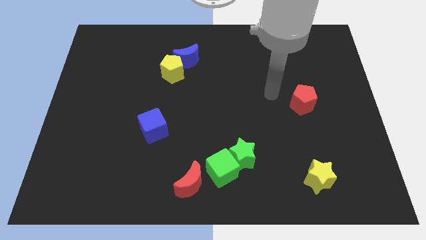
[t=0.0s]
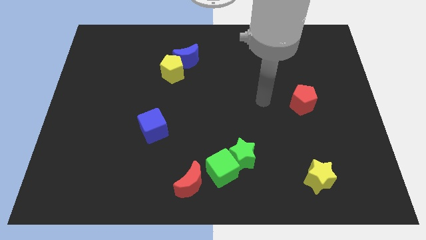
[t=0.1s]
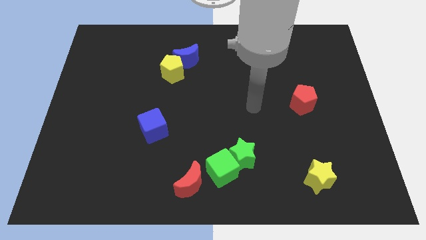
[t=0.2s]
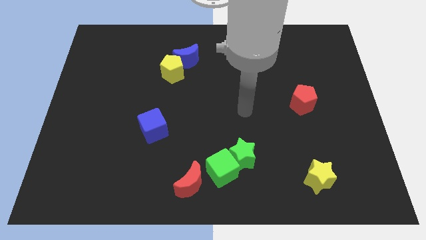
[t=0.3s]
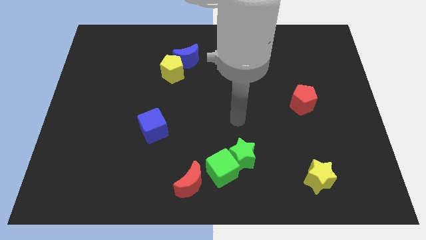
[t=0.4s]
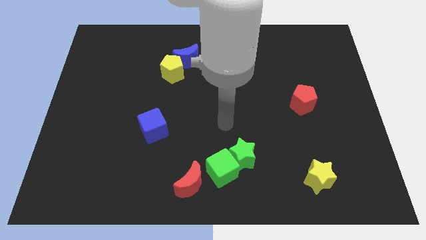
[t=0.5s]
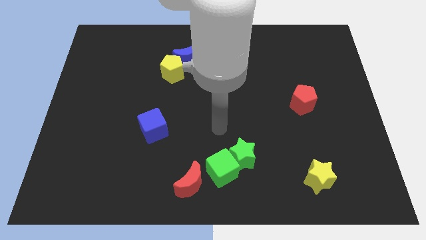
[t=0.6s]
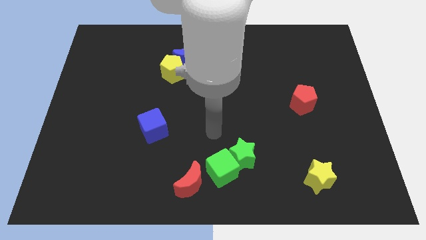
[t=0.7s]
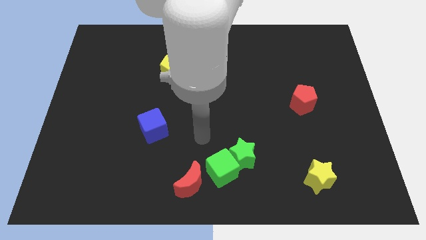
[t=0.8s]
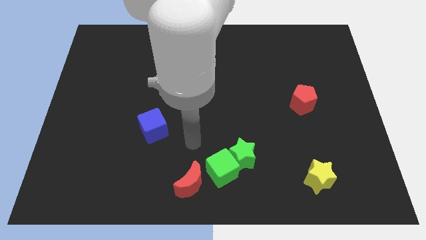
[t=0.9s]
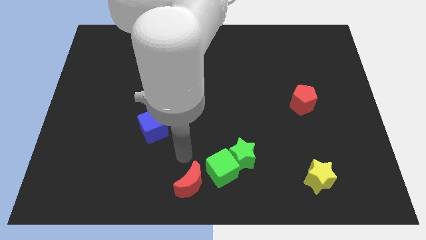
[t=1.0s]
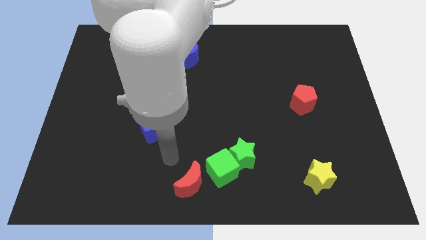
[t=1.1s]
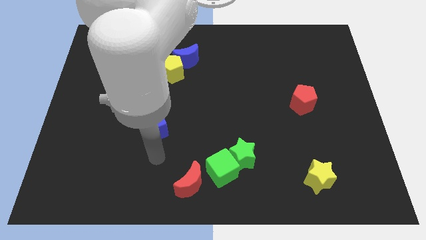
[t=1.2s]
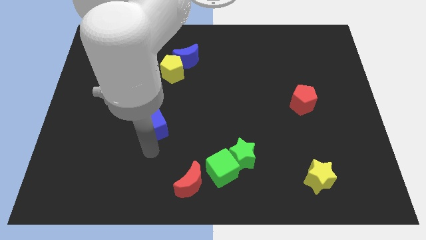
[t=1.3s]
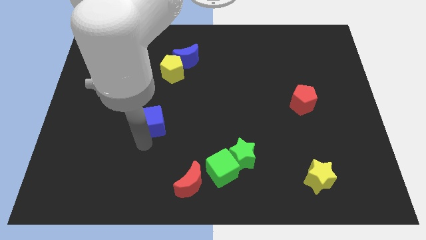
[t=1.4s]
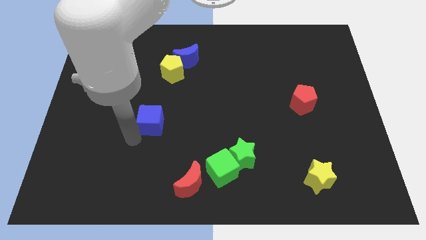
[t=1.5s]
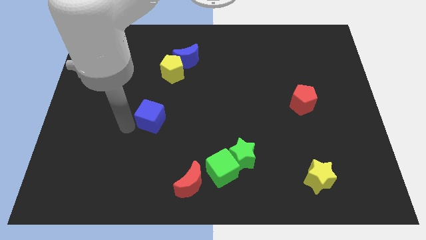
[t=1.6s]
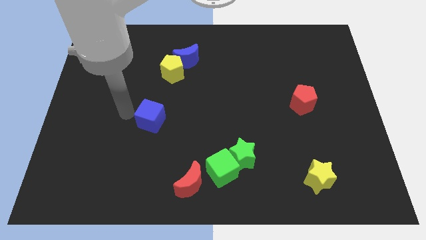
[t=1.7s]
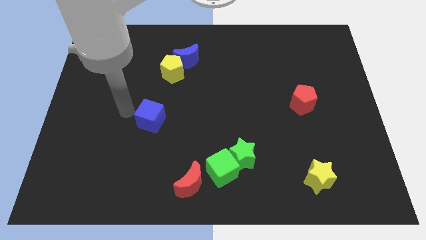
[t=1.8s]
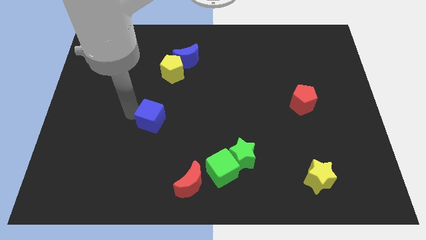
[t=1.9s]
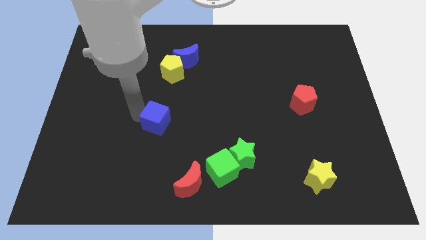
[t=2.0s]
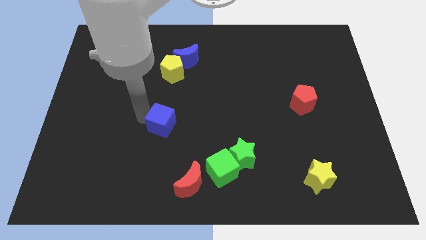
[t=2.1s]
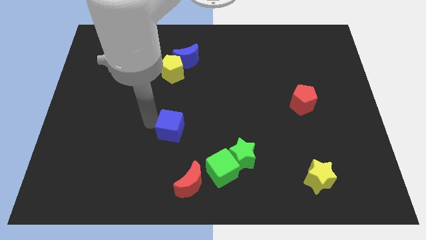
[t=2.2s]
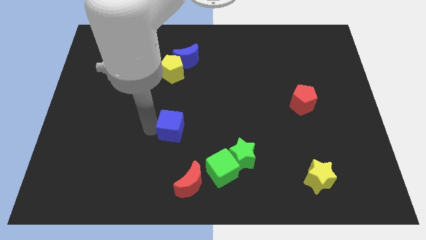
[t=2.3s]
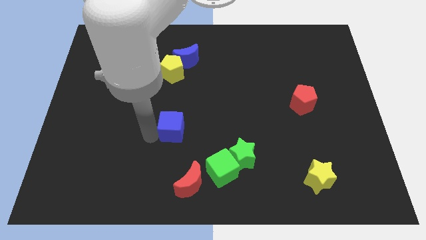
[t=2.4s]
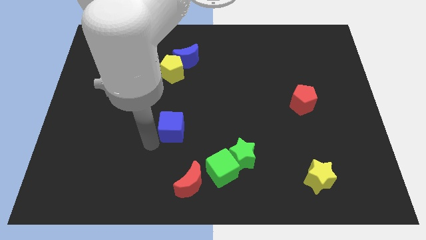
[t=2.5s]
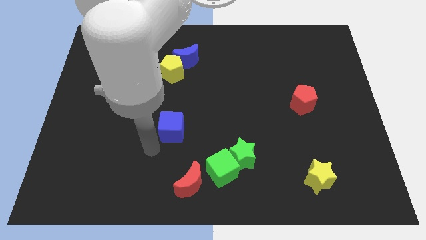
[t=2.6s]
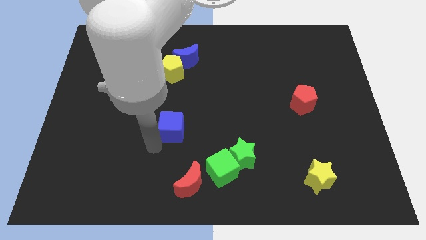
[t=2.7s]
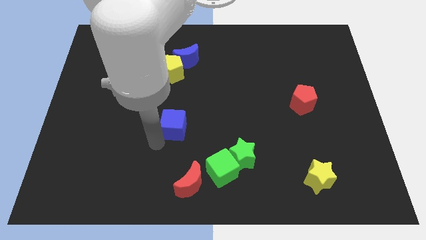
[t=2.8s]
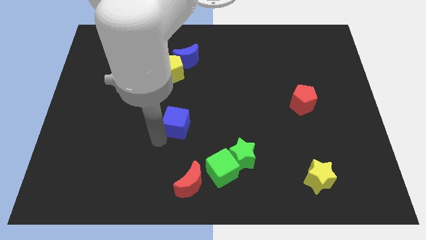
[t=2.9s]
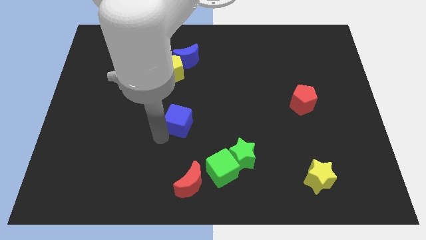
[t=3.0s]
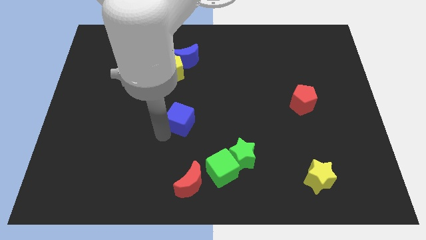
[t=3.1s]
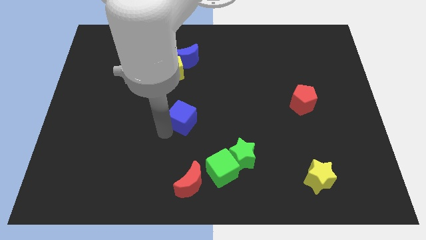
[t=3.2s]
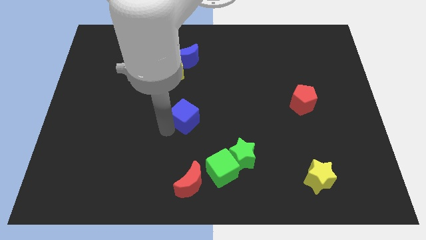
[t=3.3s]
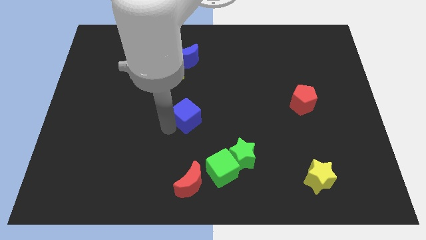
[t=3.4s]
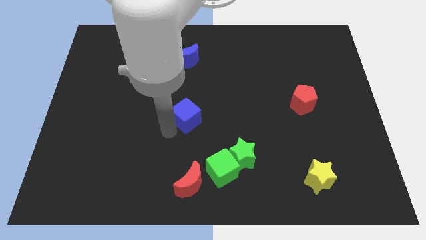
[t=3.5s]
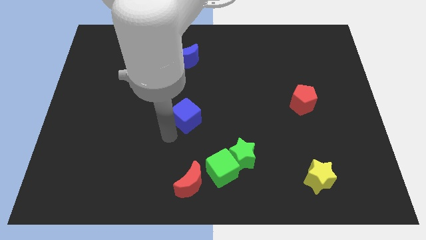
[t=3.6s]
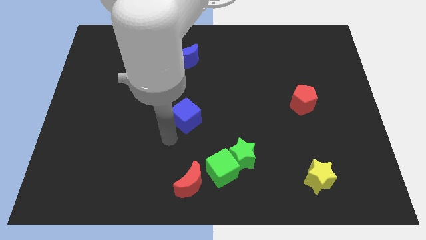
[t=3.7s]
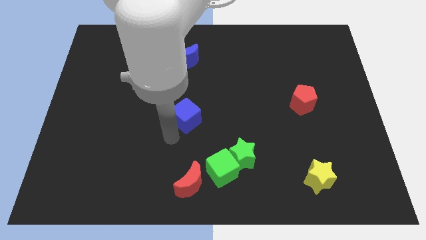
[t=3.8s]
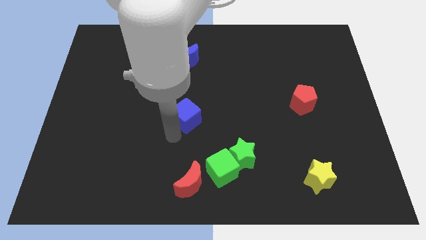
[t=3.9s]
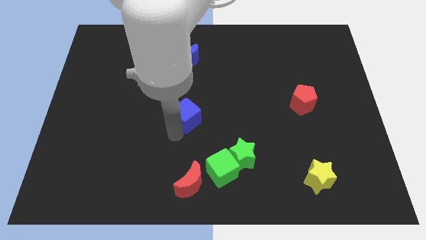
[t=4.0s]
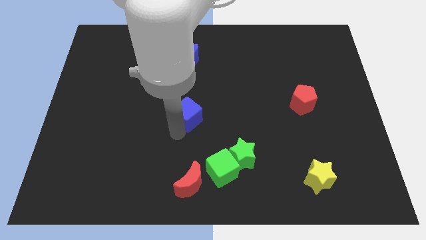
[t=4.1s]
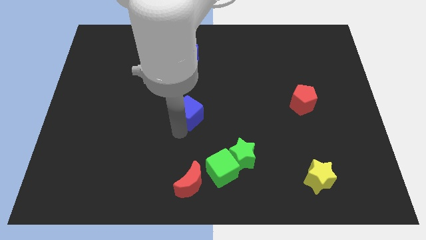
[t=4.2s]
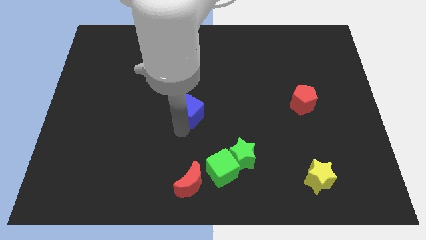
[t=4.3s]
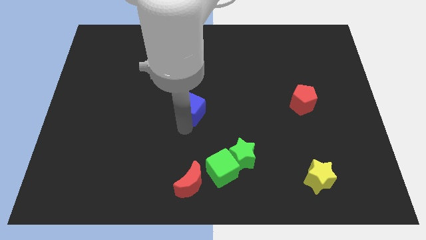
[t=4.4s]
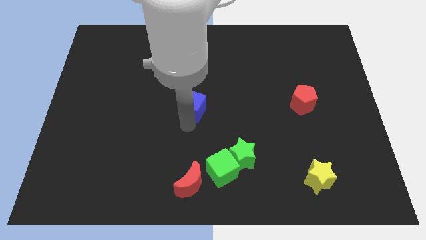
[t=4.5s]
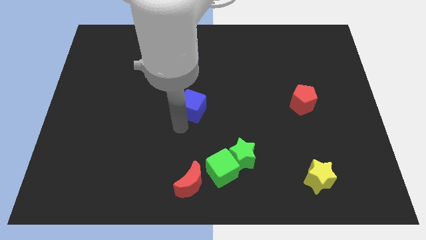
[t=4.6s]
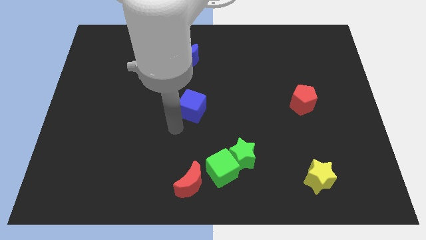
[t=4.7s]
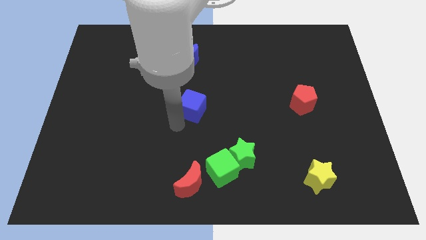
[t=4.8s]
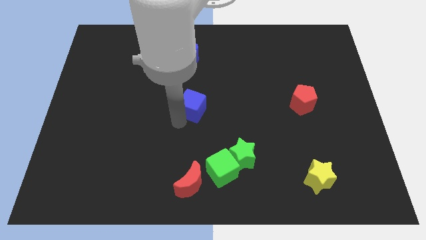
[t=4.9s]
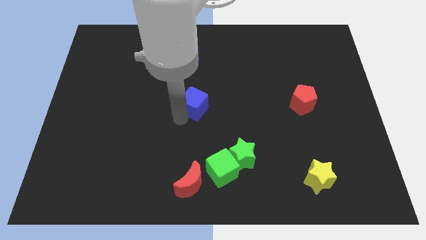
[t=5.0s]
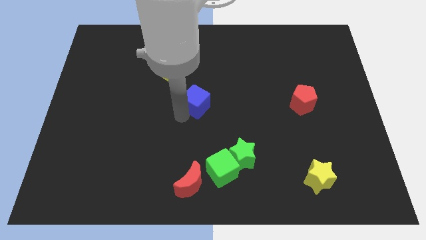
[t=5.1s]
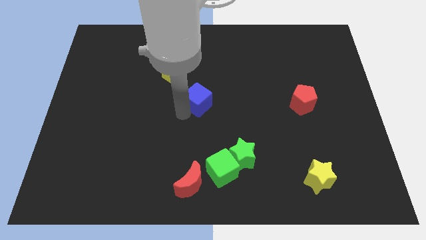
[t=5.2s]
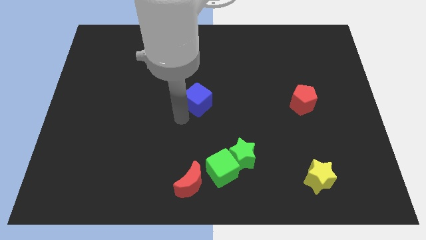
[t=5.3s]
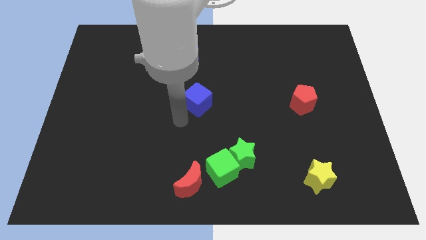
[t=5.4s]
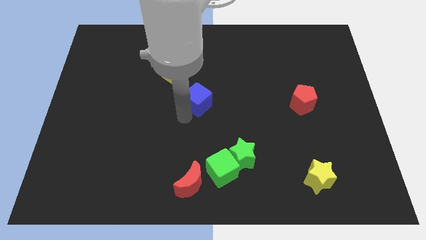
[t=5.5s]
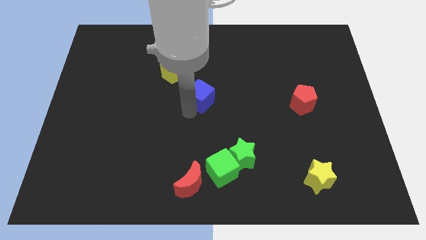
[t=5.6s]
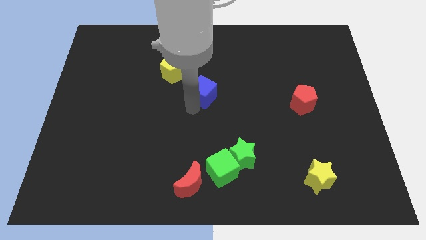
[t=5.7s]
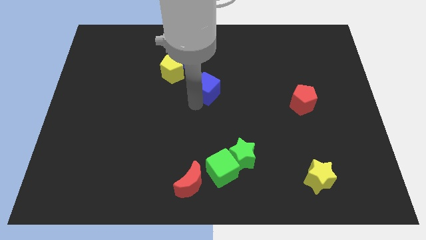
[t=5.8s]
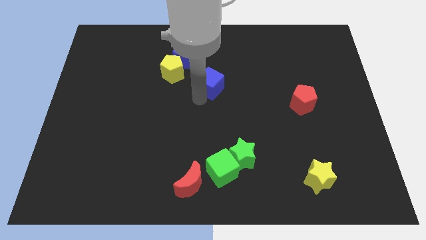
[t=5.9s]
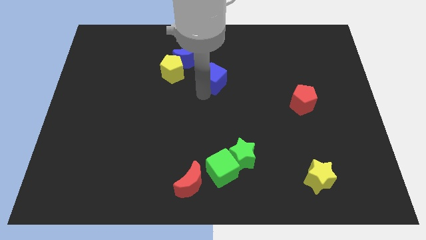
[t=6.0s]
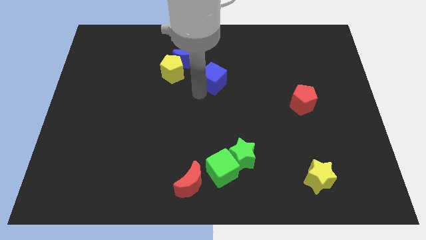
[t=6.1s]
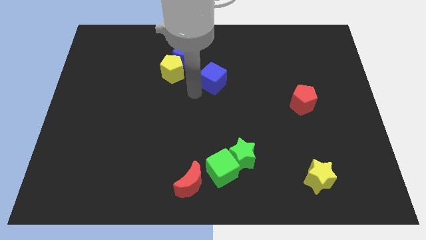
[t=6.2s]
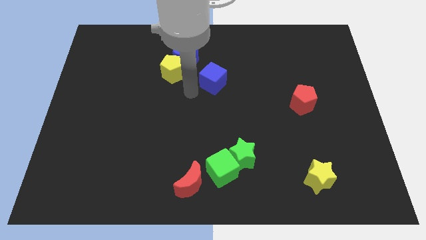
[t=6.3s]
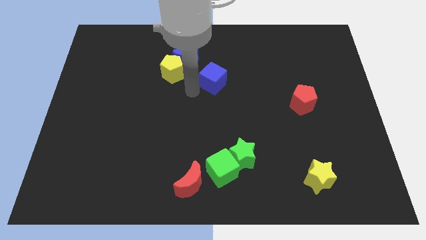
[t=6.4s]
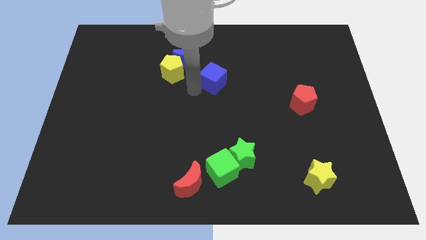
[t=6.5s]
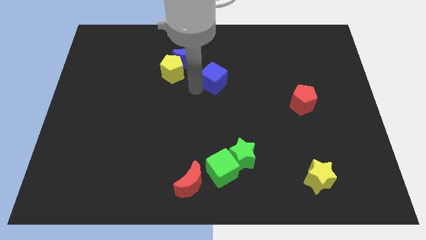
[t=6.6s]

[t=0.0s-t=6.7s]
move the blue cube upwards and right

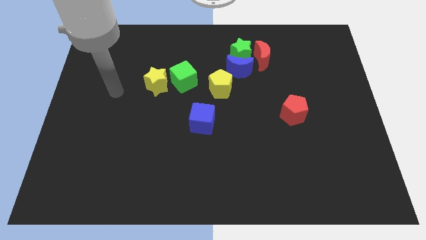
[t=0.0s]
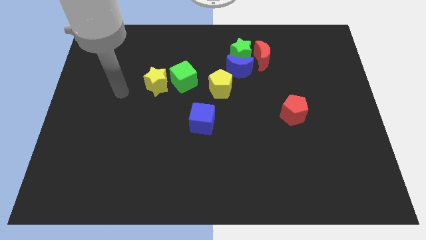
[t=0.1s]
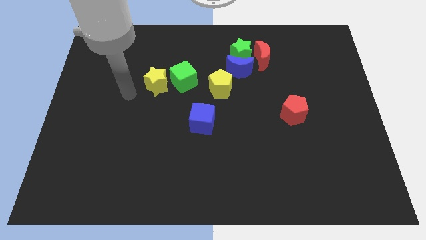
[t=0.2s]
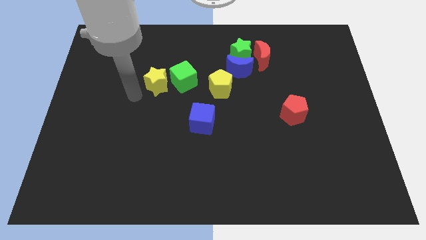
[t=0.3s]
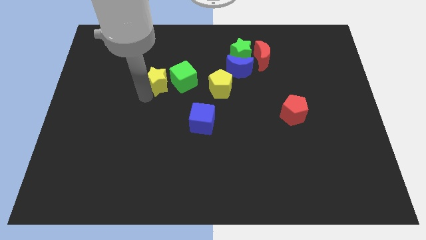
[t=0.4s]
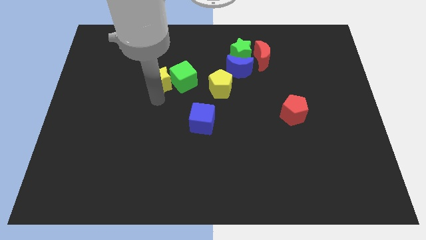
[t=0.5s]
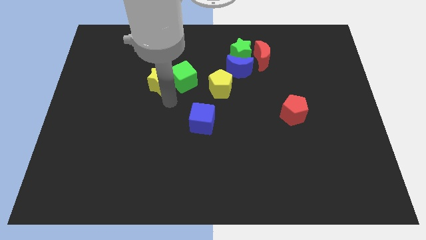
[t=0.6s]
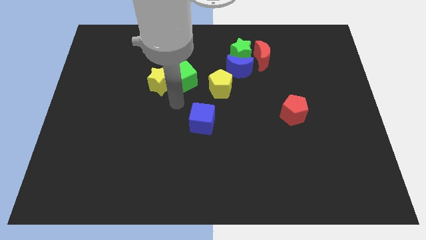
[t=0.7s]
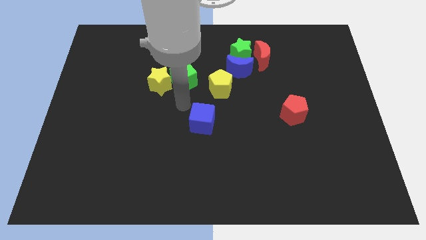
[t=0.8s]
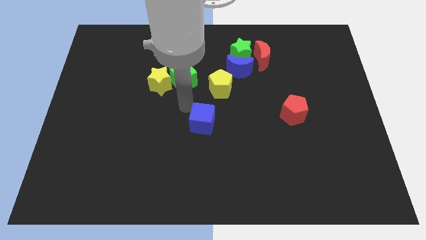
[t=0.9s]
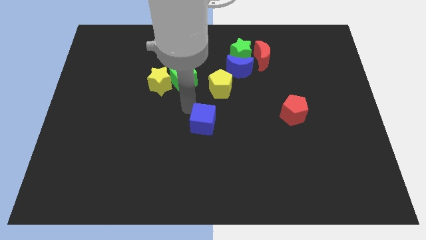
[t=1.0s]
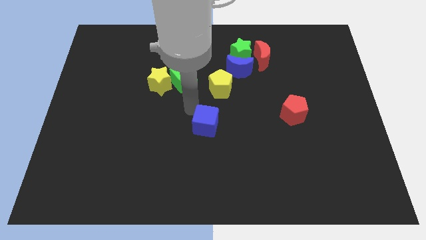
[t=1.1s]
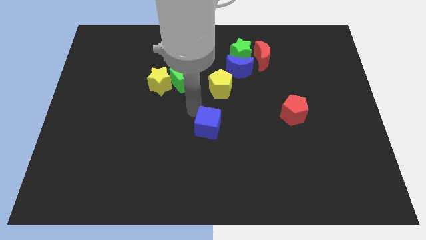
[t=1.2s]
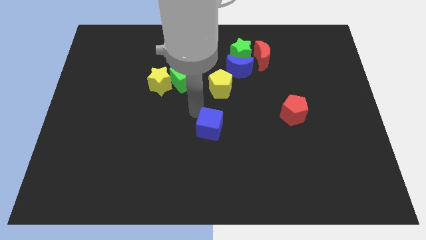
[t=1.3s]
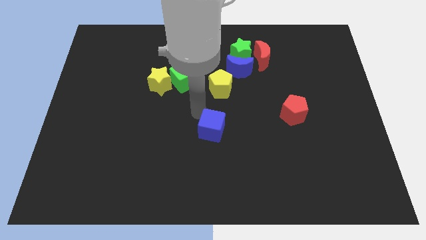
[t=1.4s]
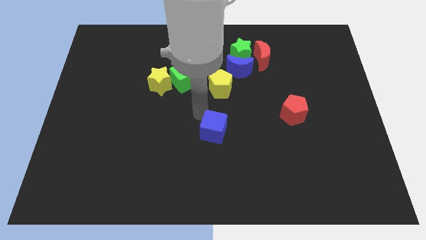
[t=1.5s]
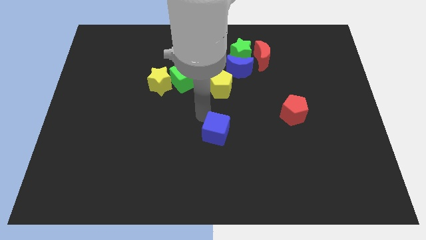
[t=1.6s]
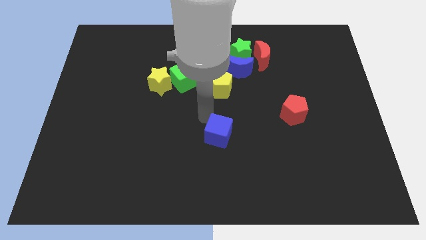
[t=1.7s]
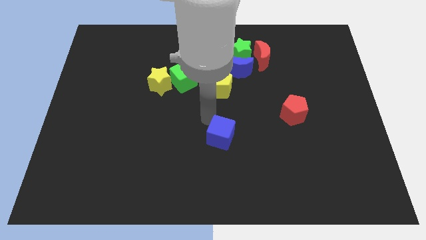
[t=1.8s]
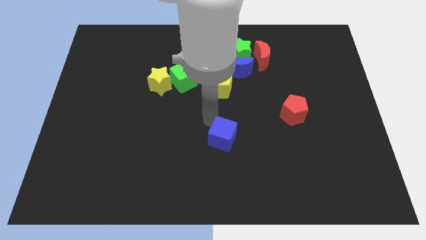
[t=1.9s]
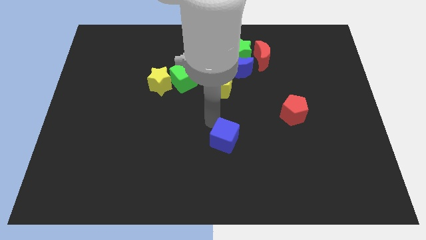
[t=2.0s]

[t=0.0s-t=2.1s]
slide the blue cube a little bit downwards and right diagonally
